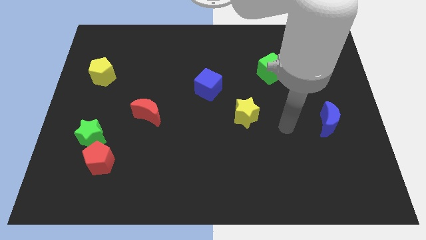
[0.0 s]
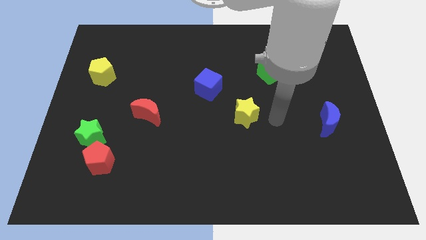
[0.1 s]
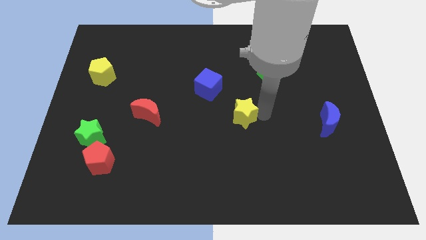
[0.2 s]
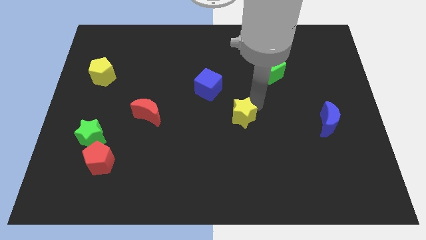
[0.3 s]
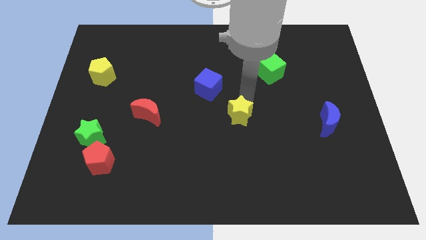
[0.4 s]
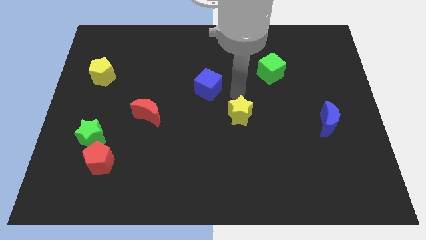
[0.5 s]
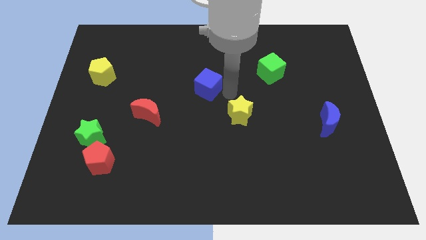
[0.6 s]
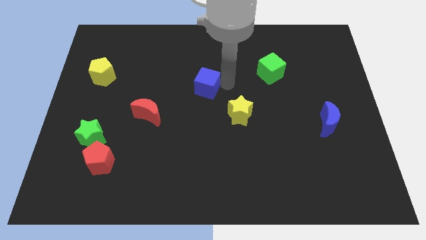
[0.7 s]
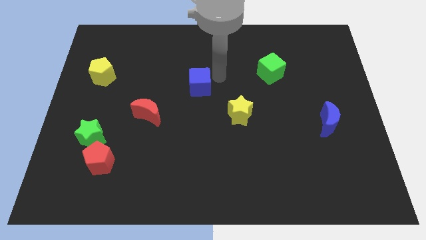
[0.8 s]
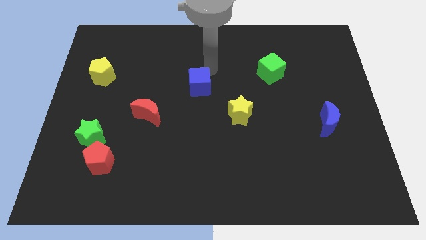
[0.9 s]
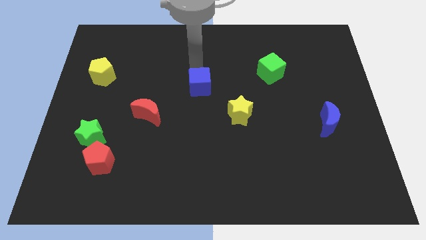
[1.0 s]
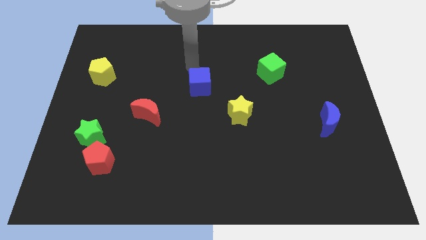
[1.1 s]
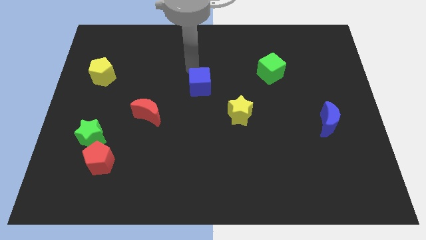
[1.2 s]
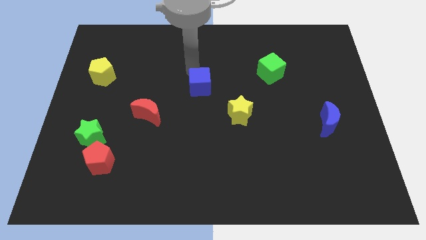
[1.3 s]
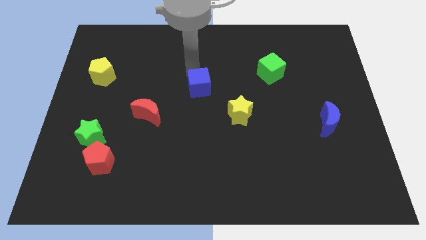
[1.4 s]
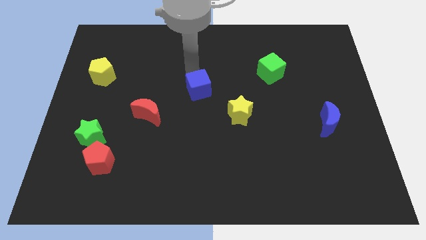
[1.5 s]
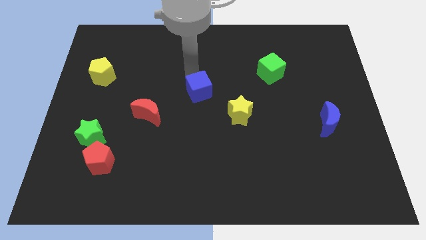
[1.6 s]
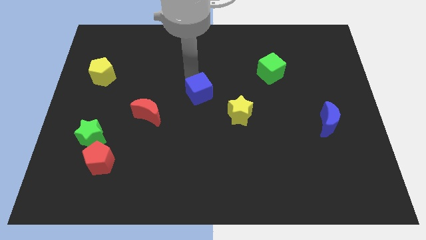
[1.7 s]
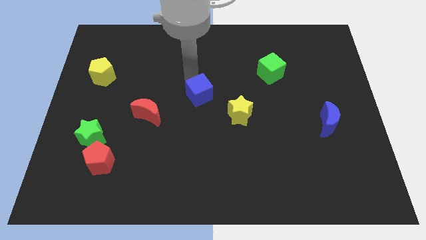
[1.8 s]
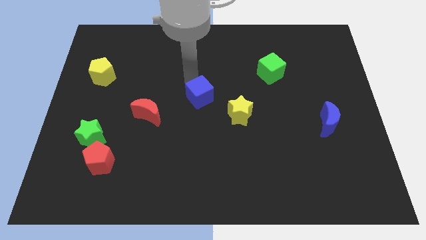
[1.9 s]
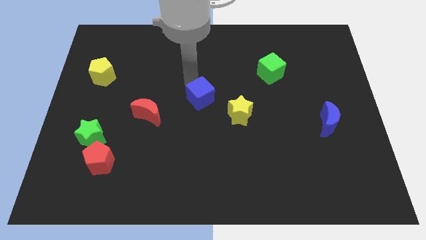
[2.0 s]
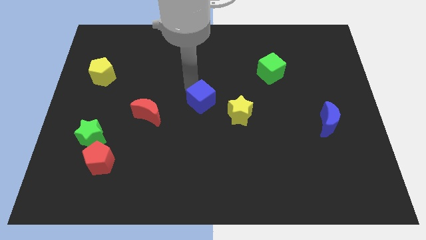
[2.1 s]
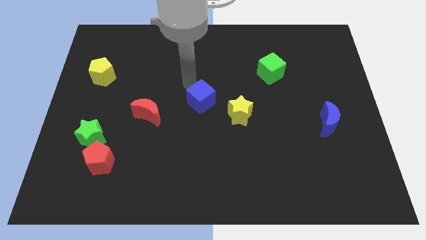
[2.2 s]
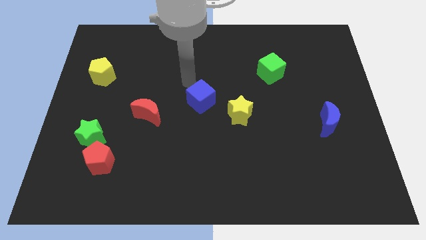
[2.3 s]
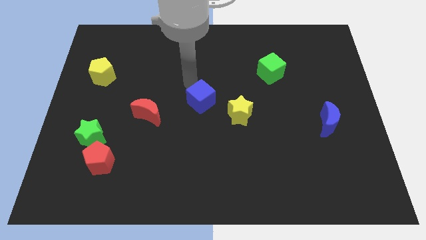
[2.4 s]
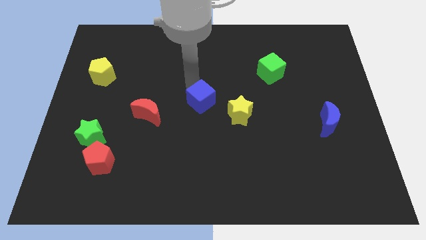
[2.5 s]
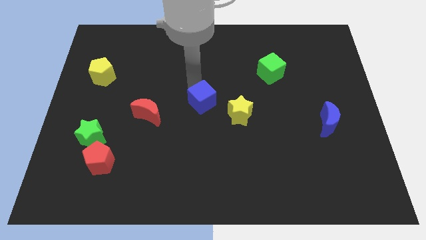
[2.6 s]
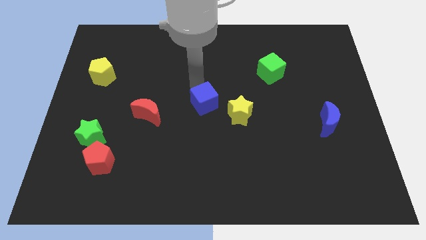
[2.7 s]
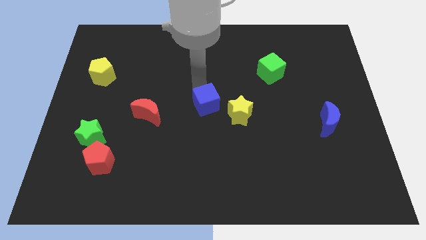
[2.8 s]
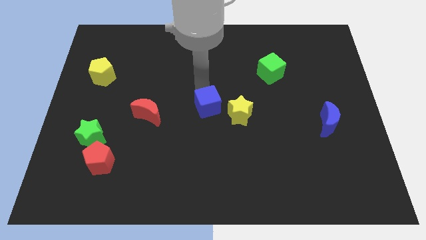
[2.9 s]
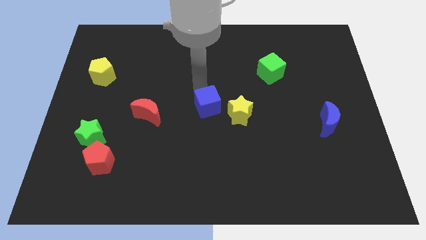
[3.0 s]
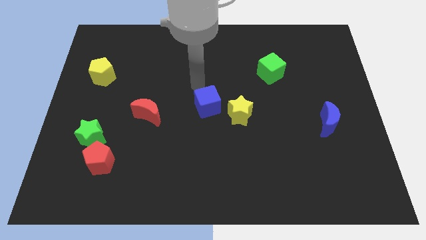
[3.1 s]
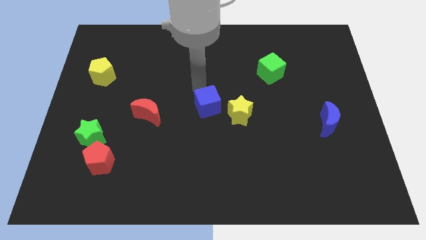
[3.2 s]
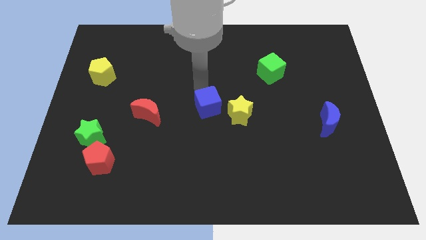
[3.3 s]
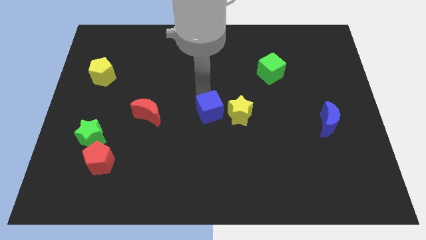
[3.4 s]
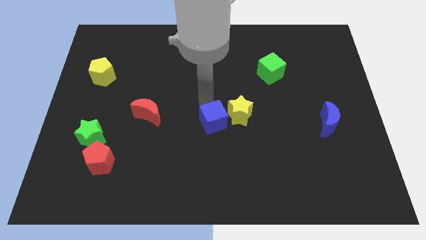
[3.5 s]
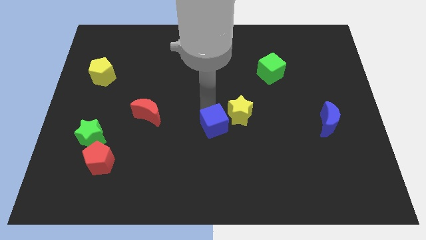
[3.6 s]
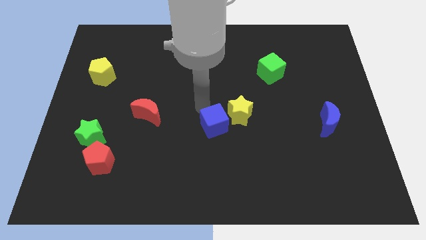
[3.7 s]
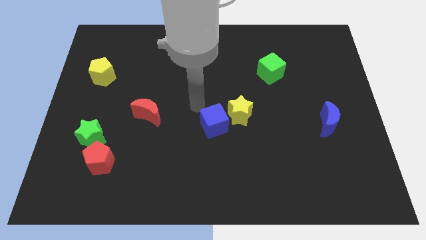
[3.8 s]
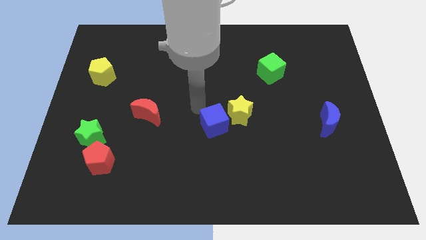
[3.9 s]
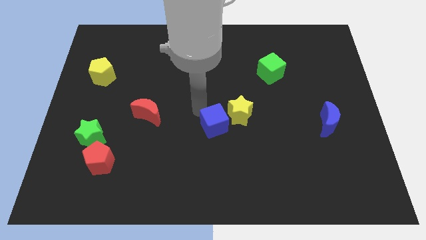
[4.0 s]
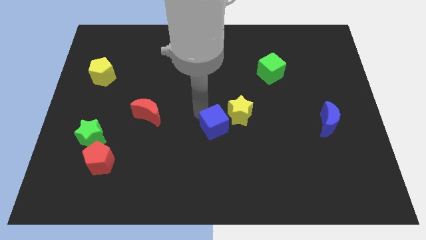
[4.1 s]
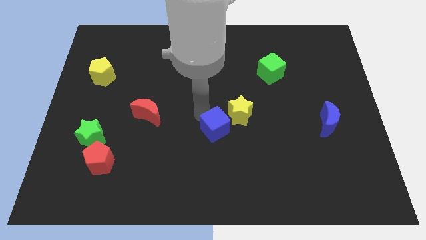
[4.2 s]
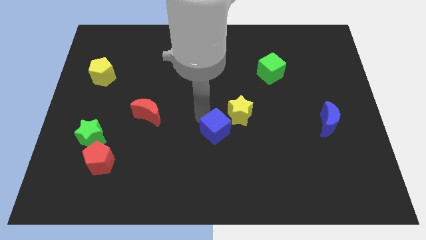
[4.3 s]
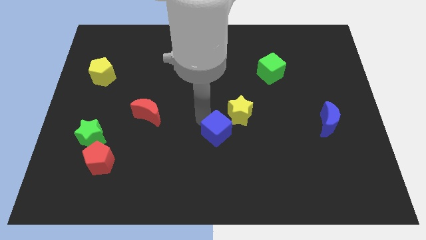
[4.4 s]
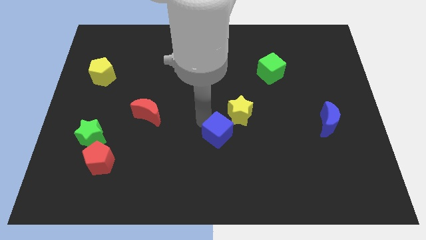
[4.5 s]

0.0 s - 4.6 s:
push the blue cube to the bottom of the yellow star

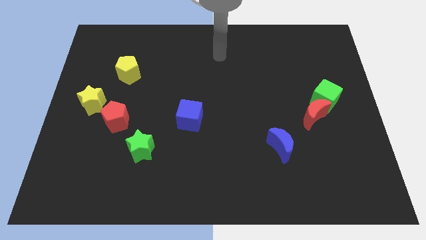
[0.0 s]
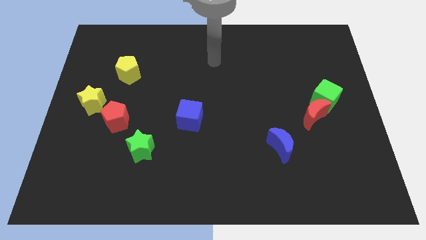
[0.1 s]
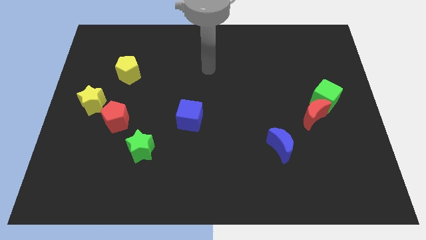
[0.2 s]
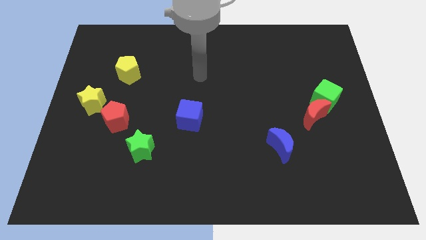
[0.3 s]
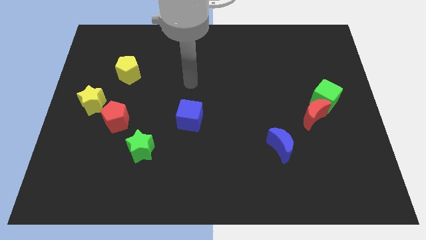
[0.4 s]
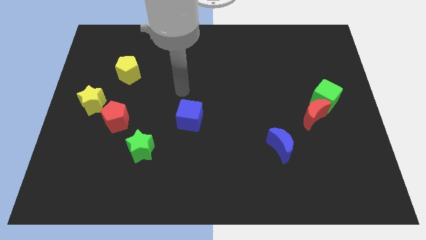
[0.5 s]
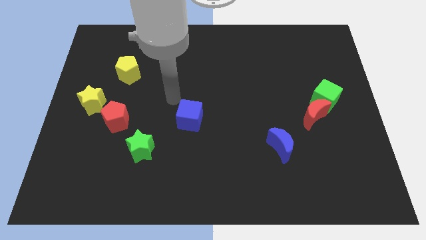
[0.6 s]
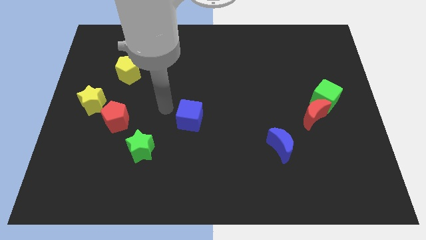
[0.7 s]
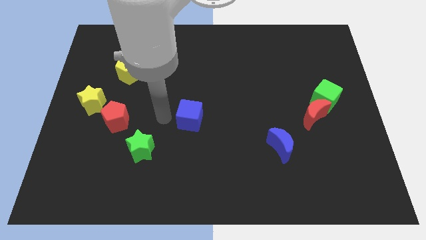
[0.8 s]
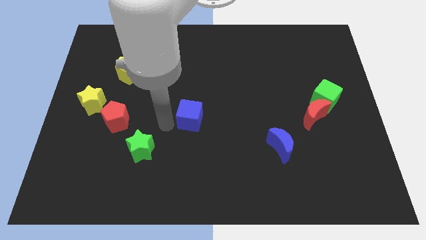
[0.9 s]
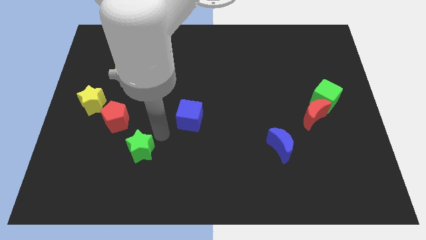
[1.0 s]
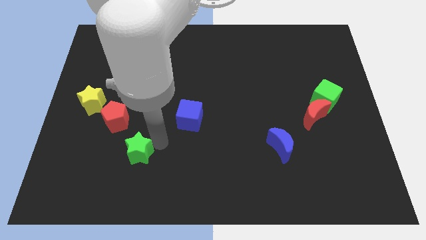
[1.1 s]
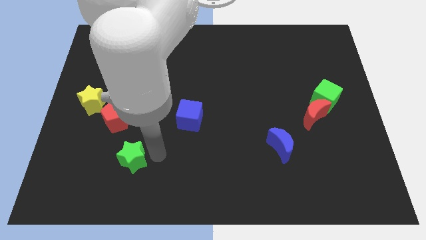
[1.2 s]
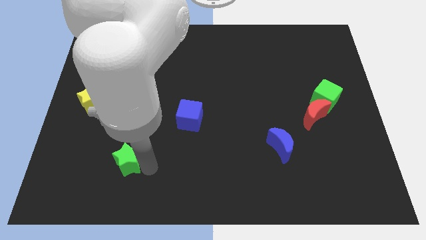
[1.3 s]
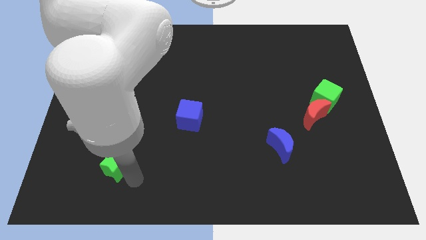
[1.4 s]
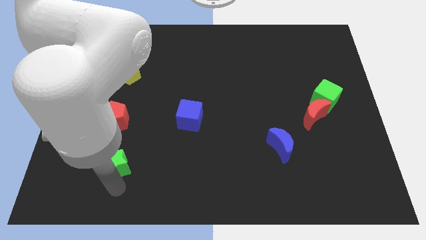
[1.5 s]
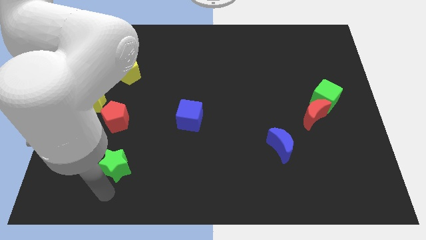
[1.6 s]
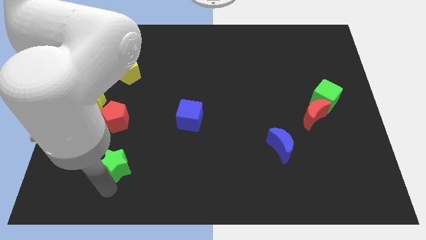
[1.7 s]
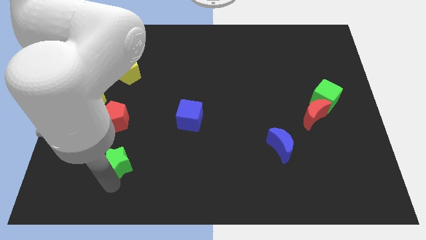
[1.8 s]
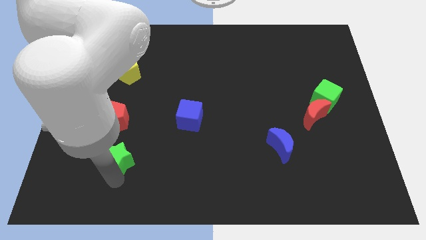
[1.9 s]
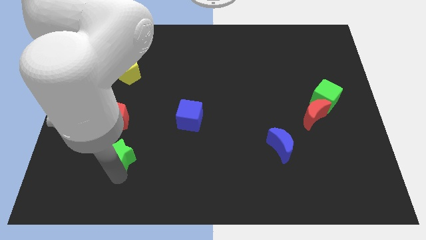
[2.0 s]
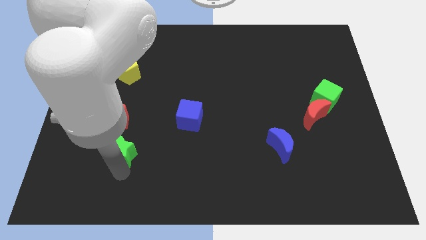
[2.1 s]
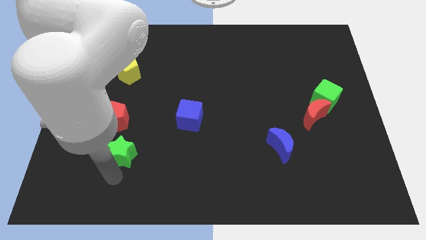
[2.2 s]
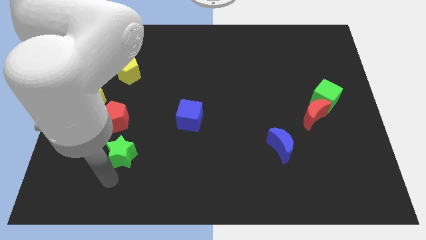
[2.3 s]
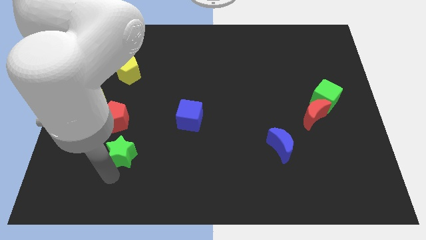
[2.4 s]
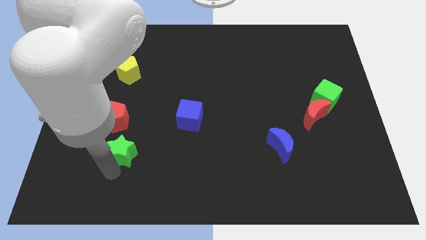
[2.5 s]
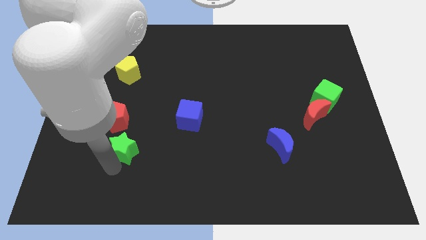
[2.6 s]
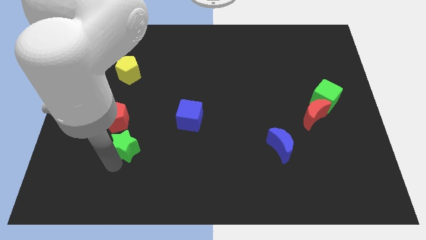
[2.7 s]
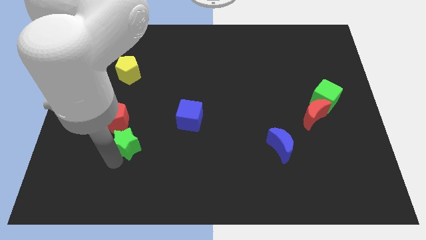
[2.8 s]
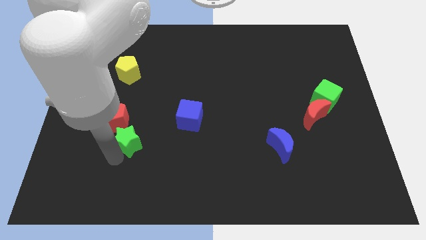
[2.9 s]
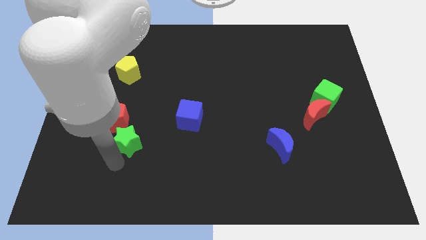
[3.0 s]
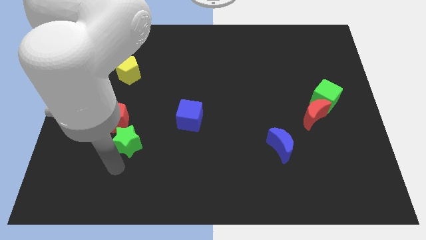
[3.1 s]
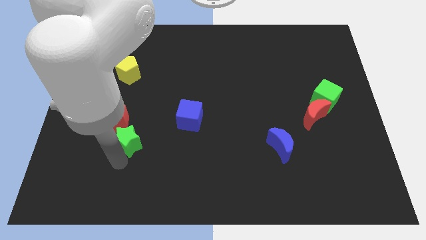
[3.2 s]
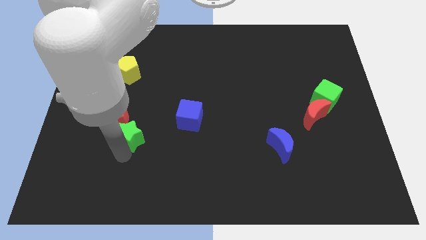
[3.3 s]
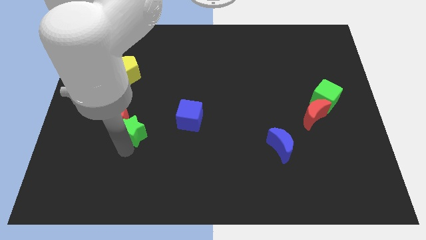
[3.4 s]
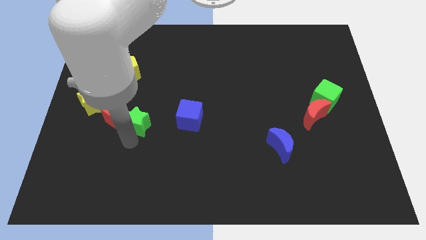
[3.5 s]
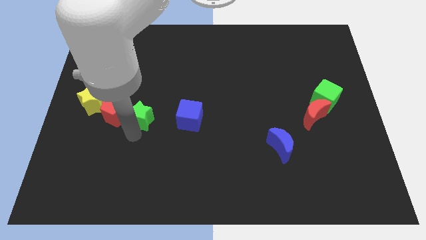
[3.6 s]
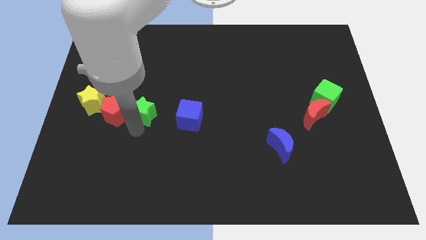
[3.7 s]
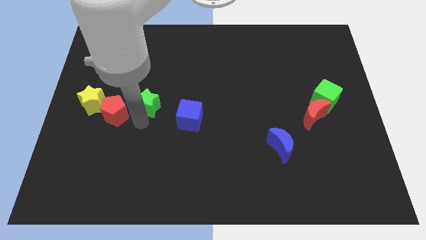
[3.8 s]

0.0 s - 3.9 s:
slide the green star to the bottom right side of the yellow pentagon
